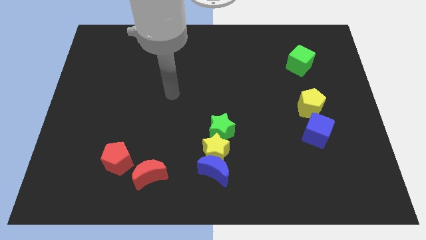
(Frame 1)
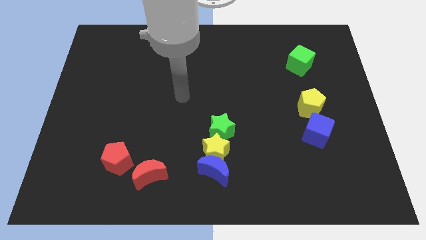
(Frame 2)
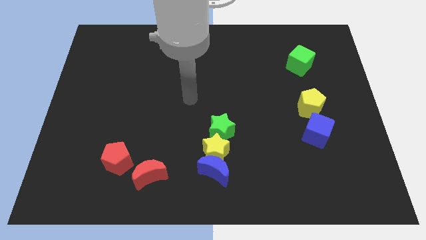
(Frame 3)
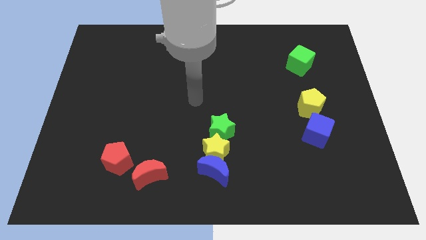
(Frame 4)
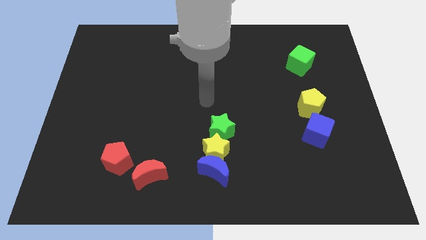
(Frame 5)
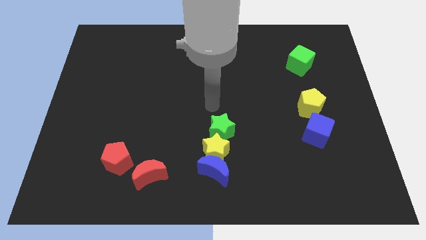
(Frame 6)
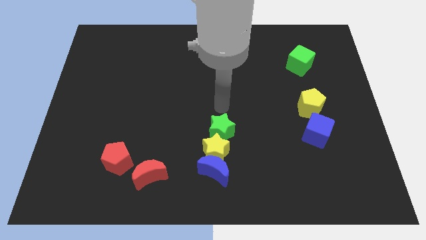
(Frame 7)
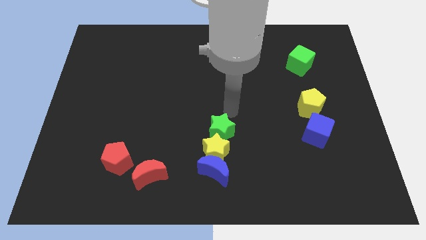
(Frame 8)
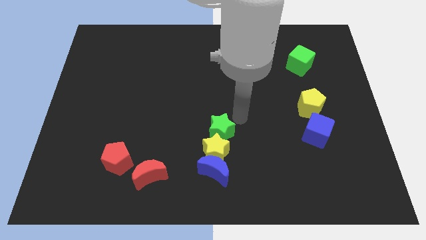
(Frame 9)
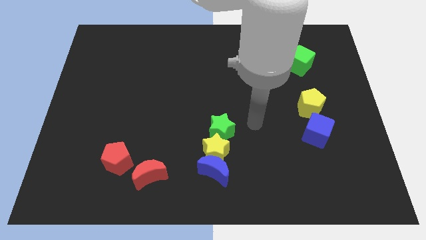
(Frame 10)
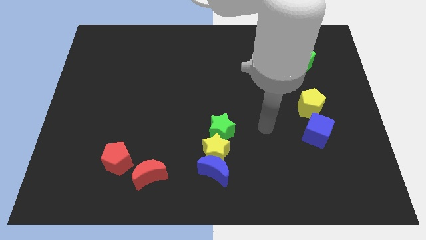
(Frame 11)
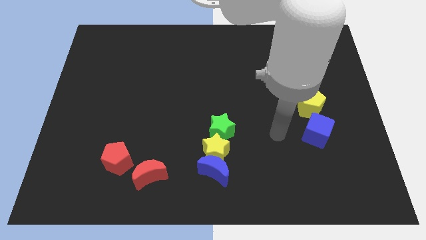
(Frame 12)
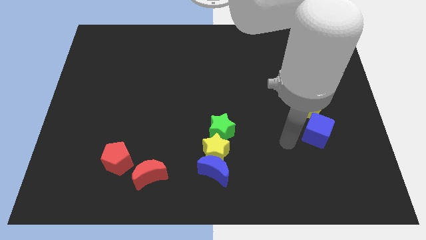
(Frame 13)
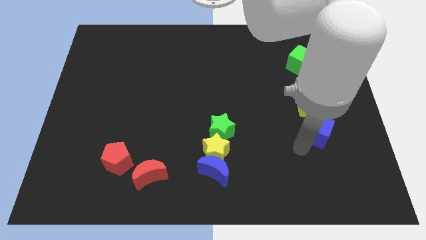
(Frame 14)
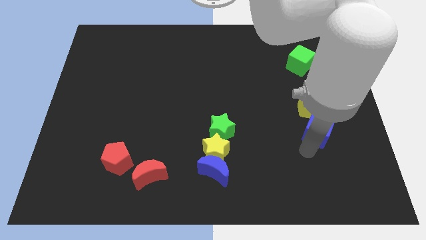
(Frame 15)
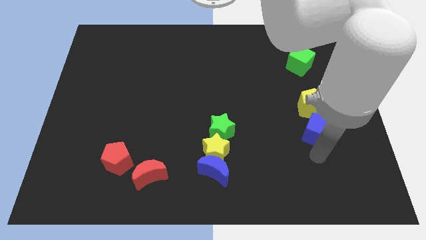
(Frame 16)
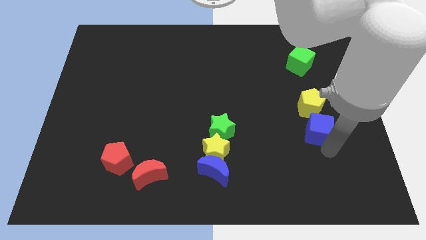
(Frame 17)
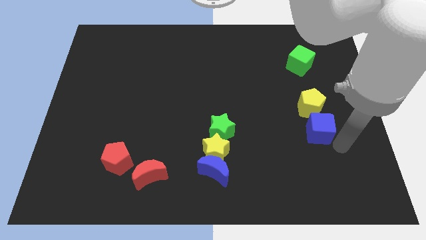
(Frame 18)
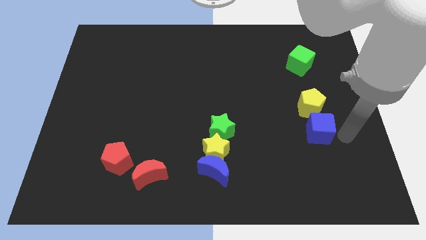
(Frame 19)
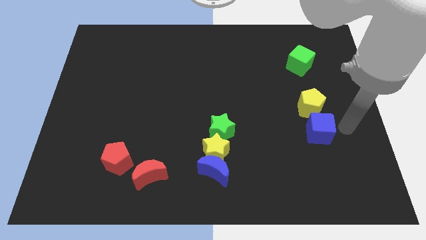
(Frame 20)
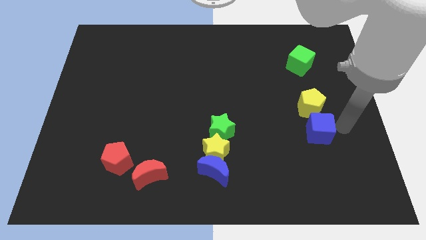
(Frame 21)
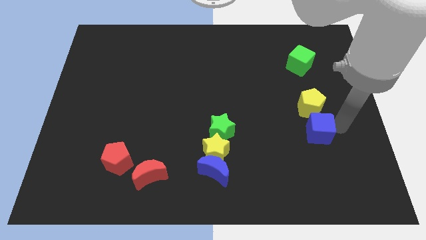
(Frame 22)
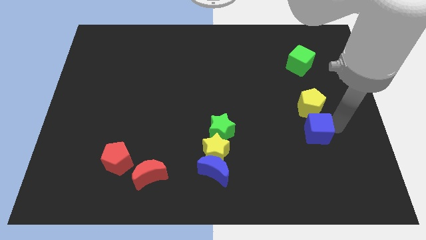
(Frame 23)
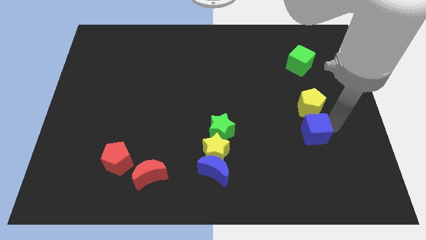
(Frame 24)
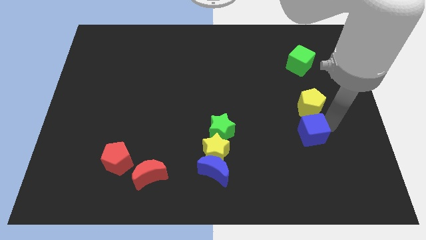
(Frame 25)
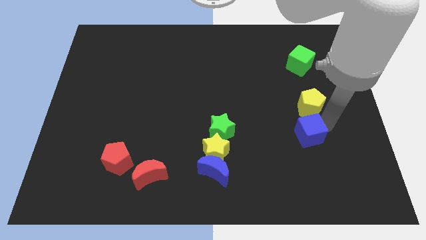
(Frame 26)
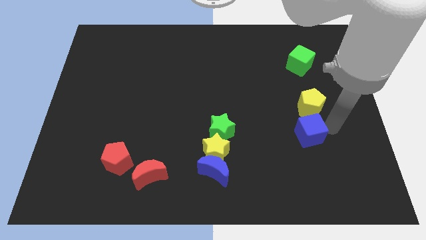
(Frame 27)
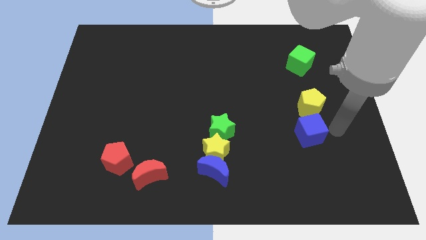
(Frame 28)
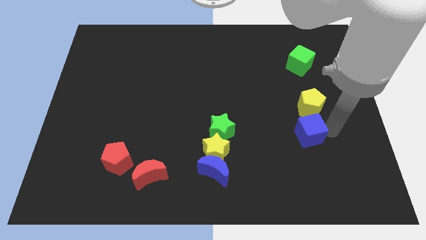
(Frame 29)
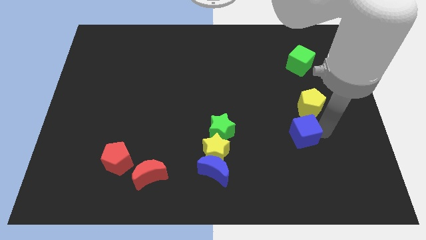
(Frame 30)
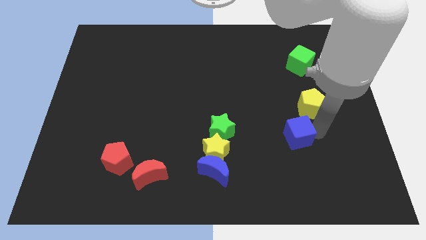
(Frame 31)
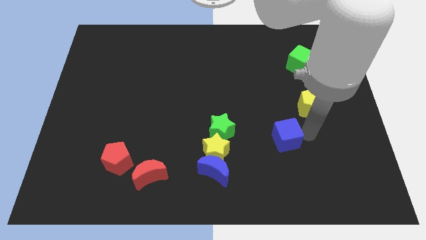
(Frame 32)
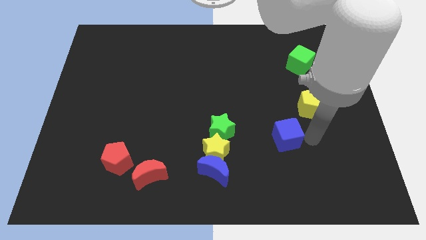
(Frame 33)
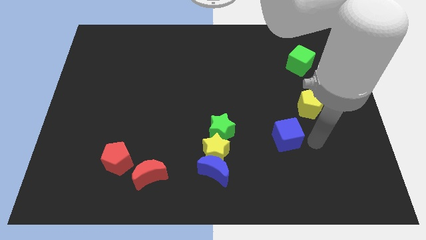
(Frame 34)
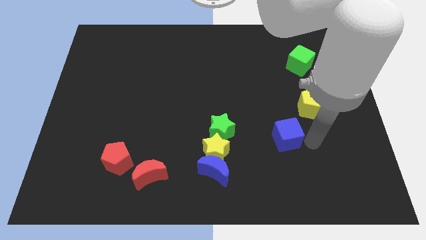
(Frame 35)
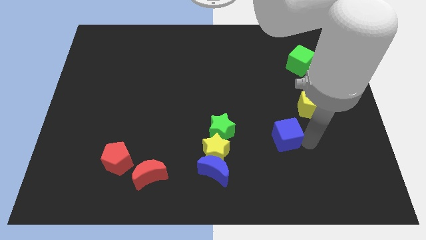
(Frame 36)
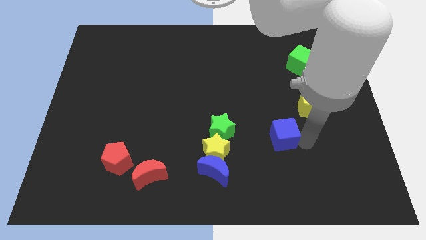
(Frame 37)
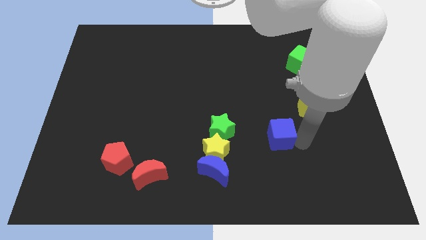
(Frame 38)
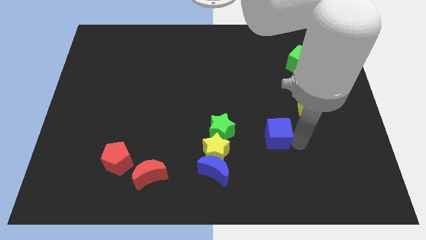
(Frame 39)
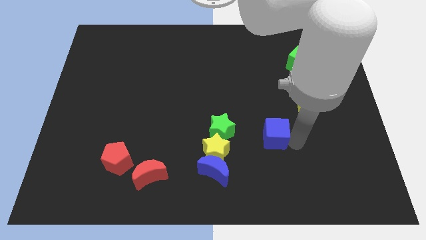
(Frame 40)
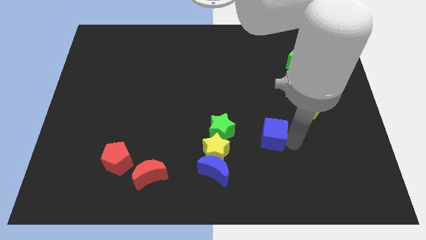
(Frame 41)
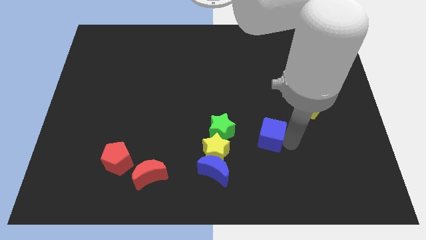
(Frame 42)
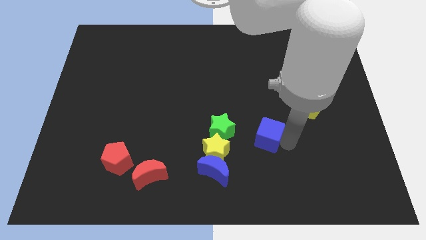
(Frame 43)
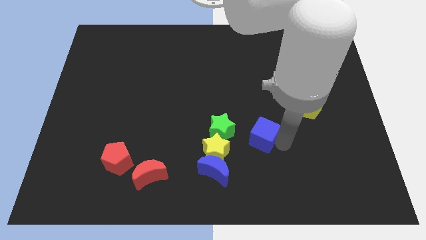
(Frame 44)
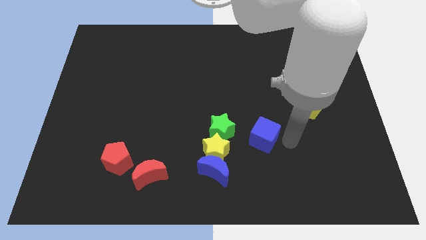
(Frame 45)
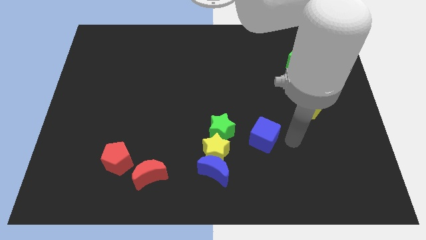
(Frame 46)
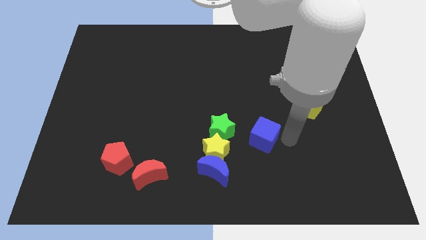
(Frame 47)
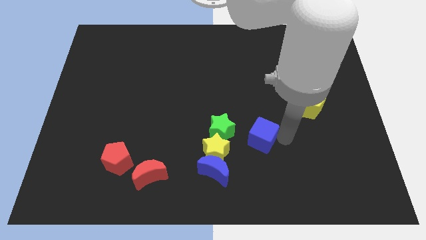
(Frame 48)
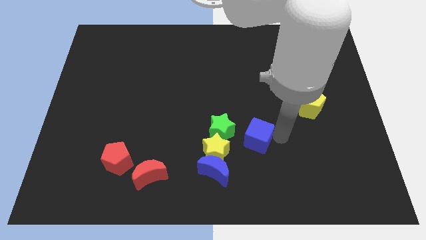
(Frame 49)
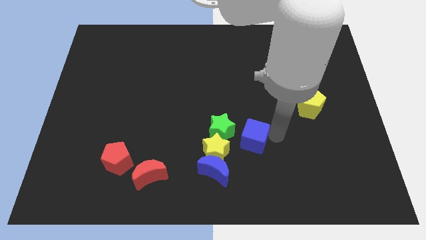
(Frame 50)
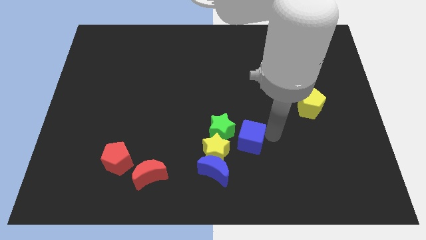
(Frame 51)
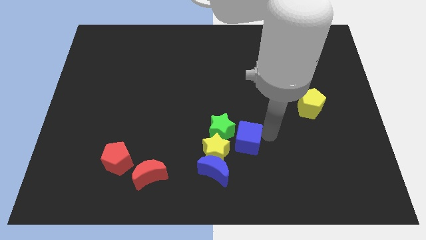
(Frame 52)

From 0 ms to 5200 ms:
move the blue cube close to the green star

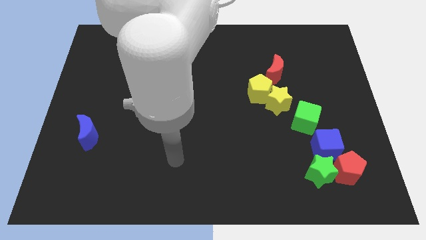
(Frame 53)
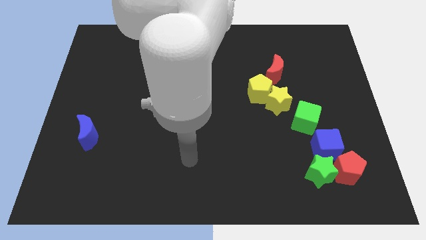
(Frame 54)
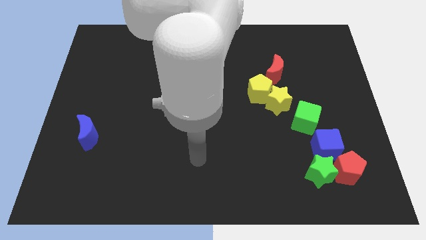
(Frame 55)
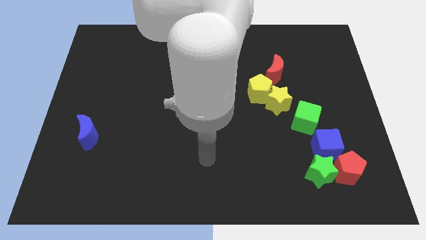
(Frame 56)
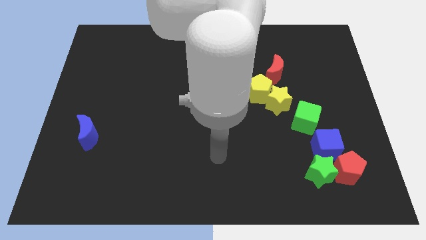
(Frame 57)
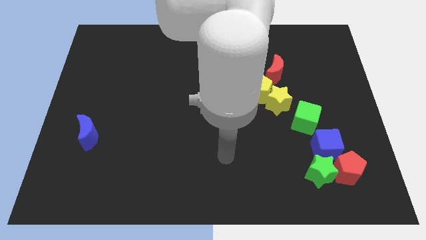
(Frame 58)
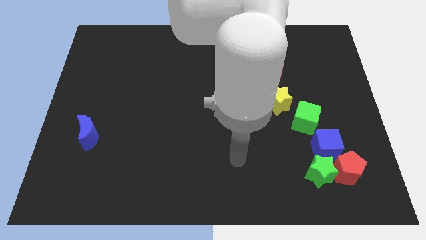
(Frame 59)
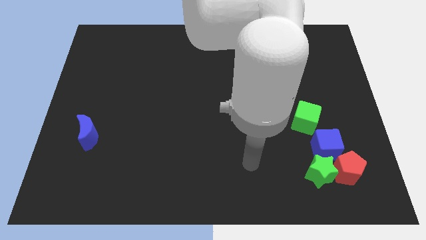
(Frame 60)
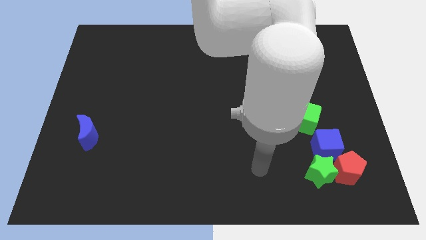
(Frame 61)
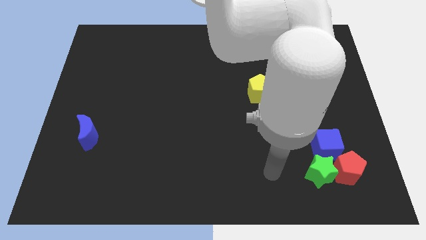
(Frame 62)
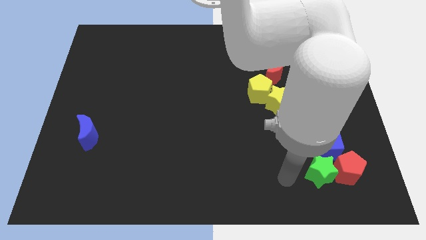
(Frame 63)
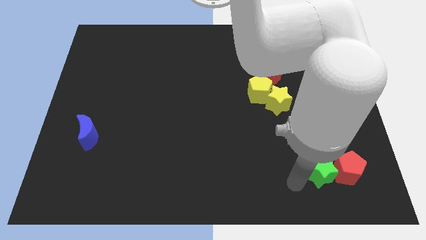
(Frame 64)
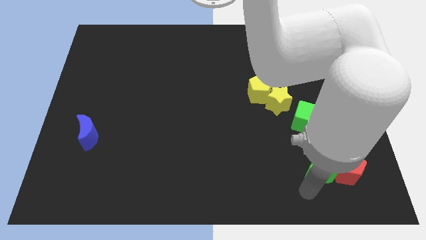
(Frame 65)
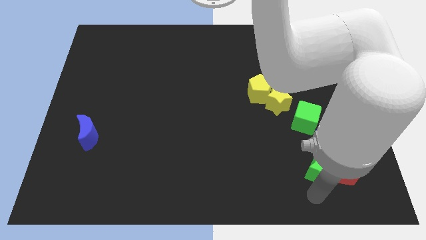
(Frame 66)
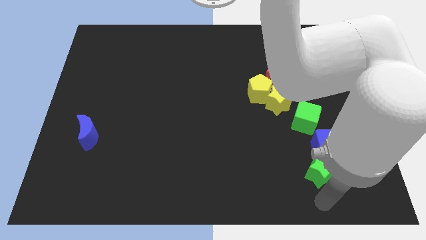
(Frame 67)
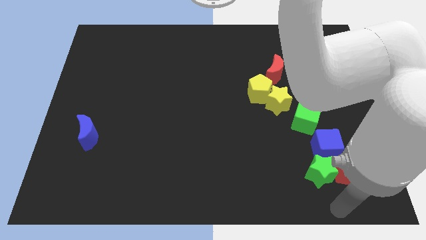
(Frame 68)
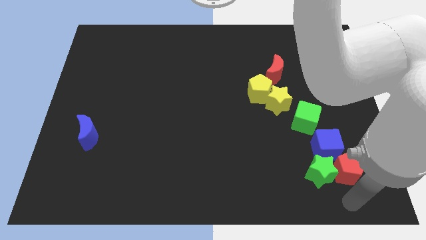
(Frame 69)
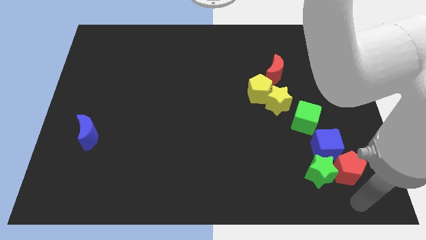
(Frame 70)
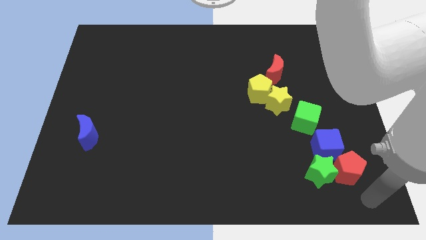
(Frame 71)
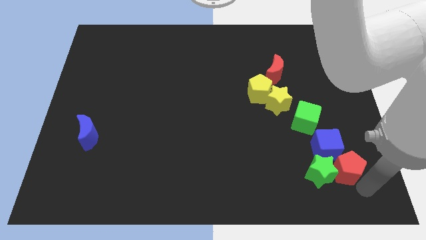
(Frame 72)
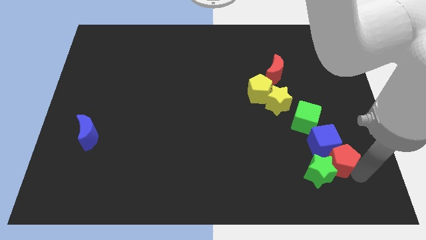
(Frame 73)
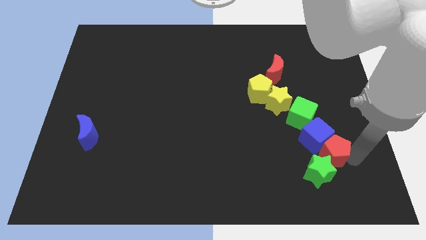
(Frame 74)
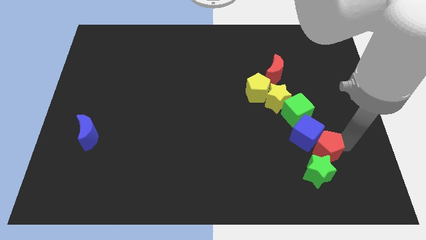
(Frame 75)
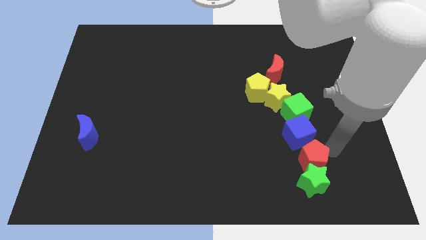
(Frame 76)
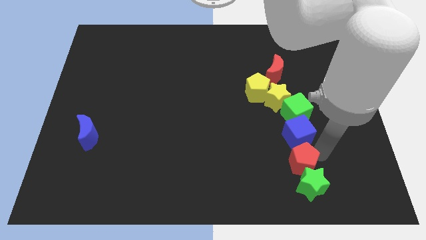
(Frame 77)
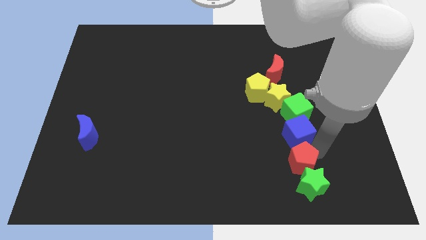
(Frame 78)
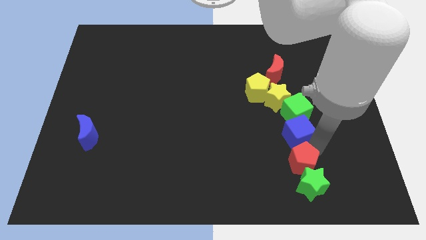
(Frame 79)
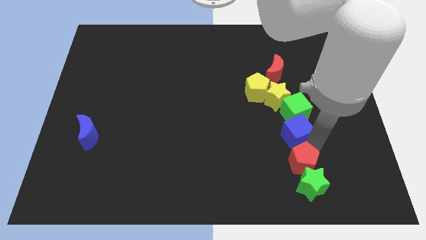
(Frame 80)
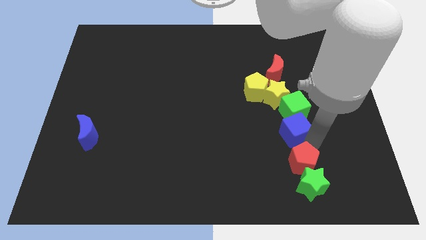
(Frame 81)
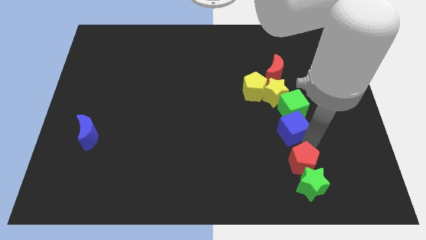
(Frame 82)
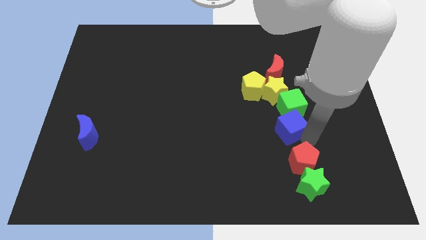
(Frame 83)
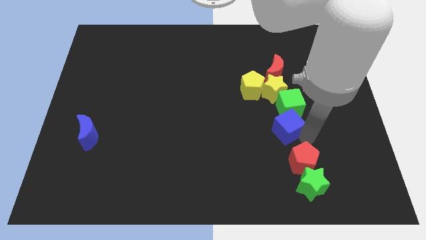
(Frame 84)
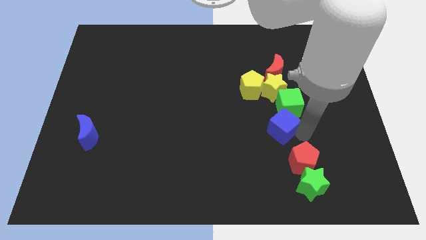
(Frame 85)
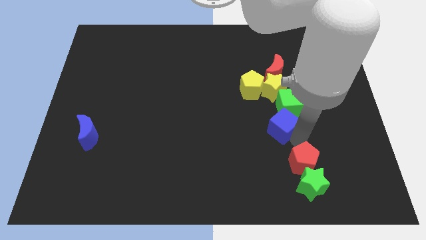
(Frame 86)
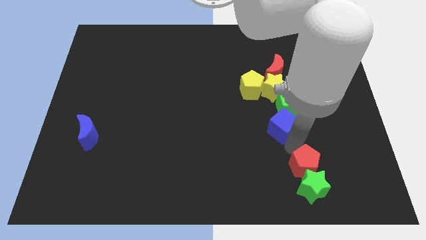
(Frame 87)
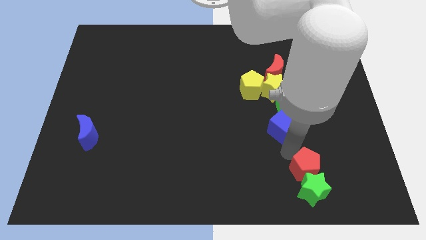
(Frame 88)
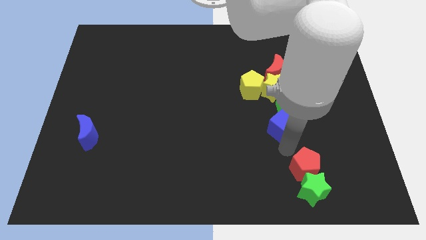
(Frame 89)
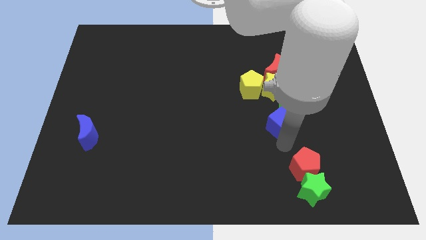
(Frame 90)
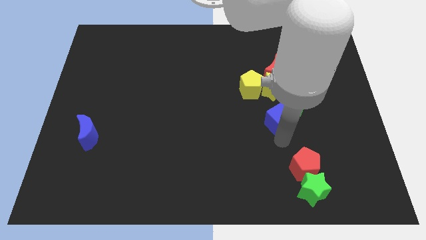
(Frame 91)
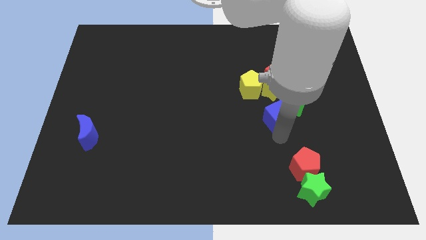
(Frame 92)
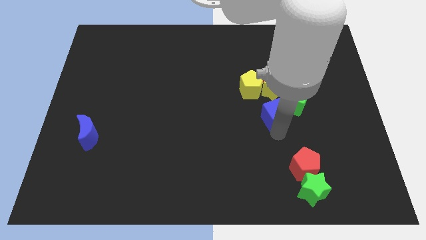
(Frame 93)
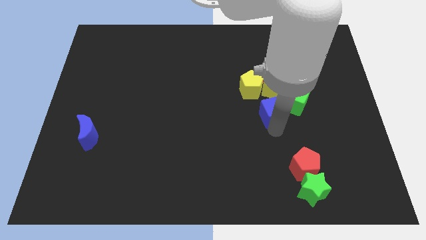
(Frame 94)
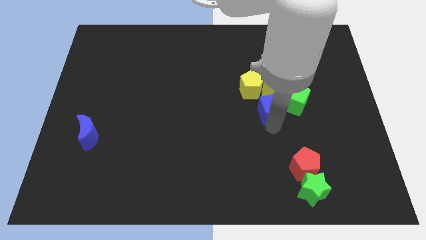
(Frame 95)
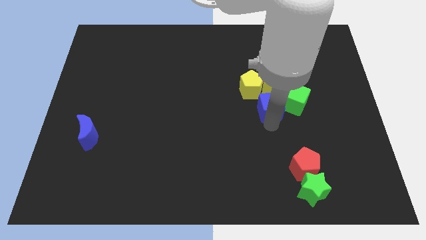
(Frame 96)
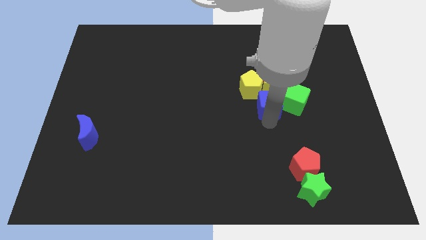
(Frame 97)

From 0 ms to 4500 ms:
slide the blue cube to the yellow star
